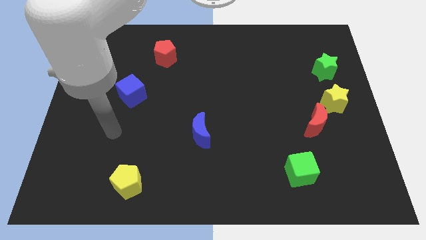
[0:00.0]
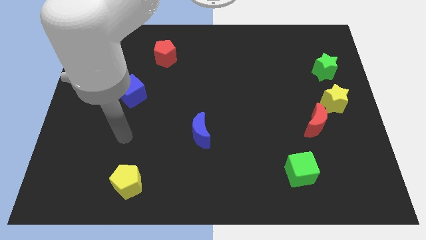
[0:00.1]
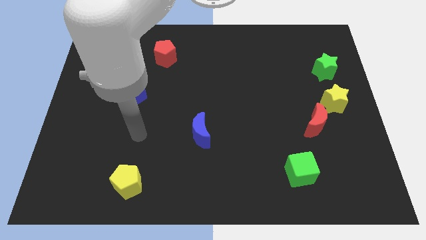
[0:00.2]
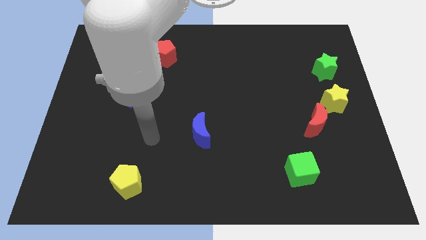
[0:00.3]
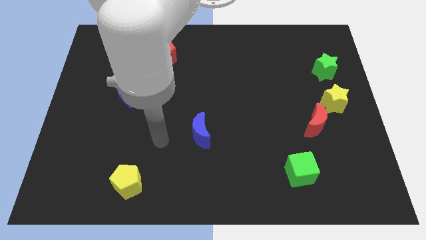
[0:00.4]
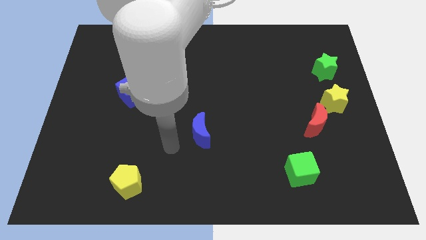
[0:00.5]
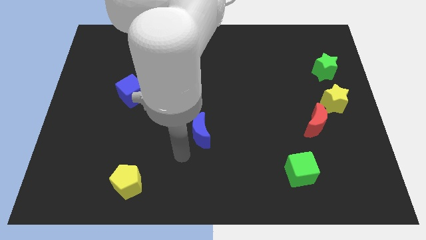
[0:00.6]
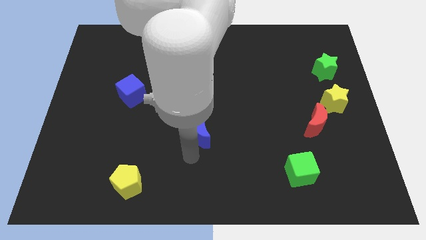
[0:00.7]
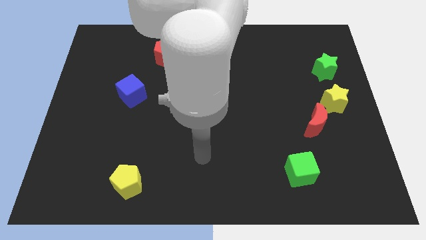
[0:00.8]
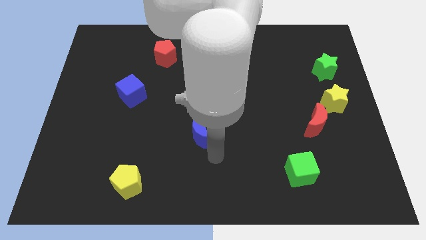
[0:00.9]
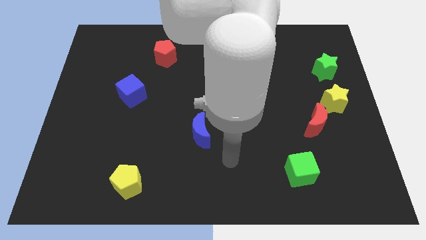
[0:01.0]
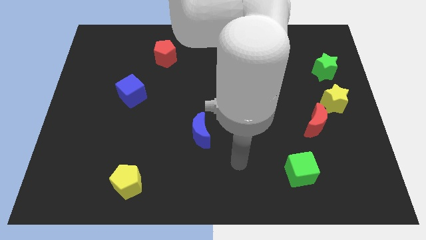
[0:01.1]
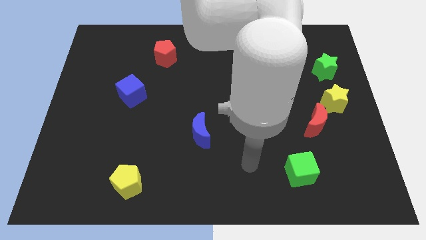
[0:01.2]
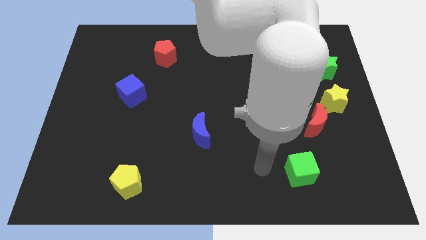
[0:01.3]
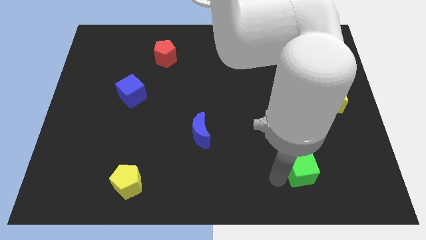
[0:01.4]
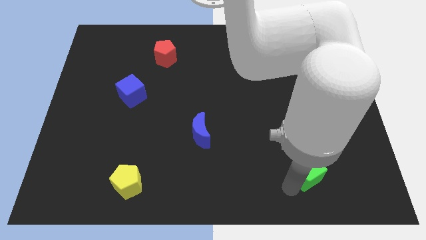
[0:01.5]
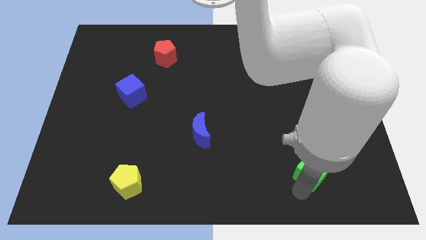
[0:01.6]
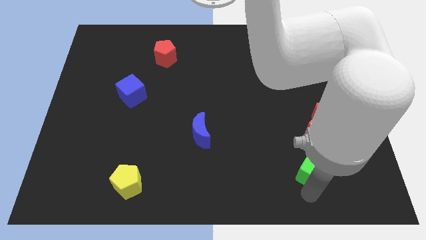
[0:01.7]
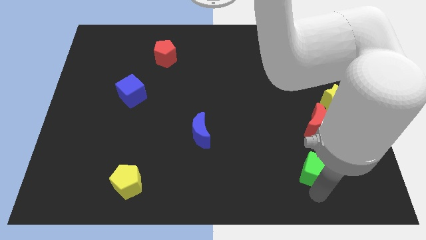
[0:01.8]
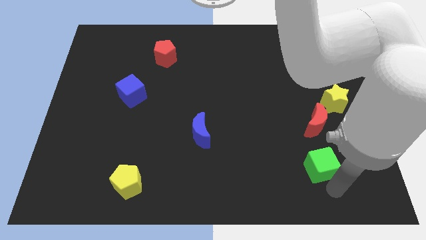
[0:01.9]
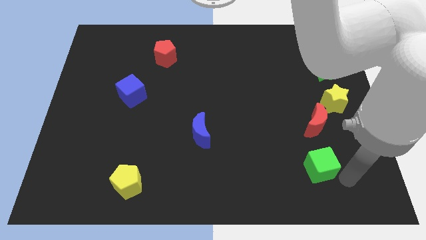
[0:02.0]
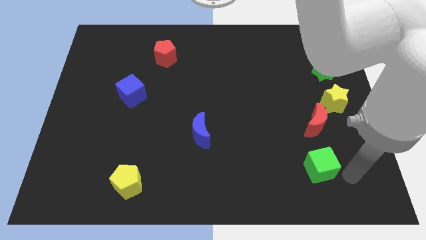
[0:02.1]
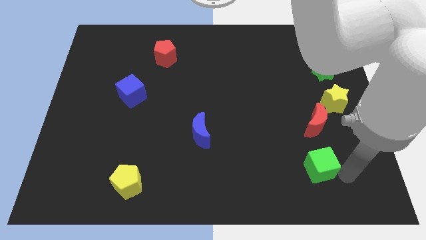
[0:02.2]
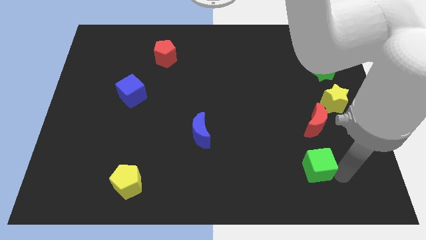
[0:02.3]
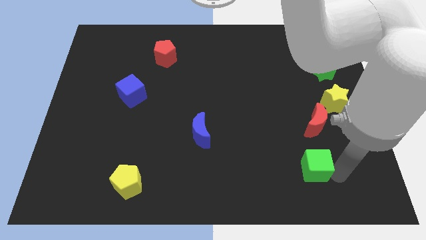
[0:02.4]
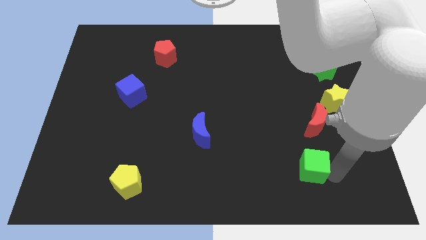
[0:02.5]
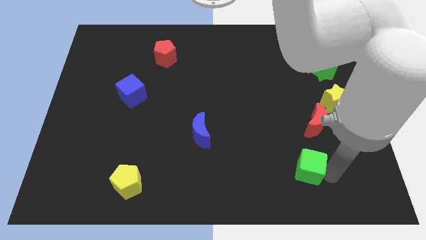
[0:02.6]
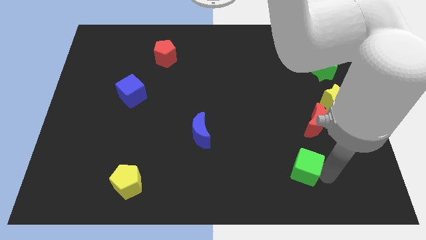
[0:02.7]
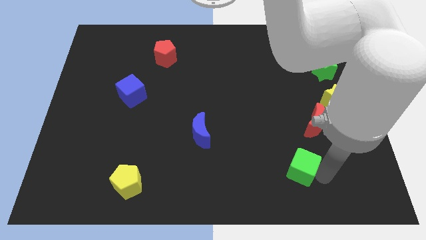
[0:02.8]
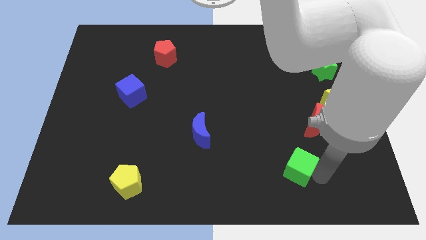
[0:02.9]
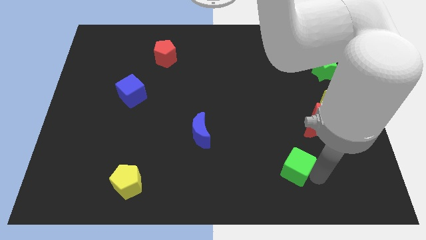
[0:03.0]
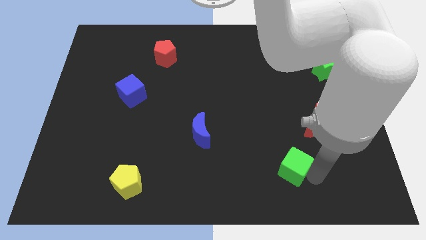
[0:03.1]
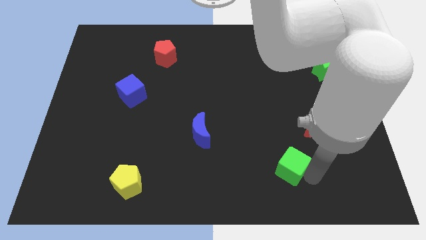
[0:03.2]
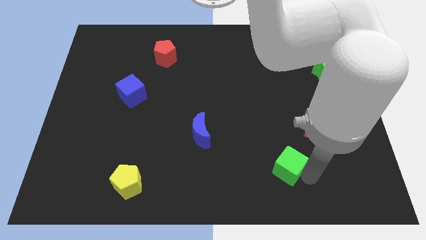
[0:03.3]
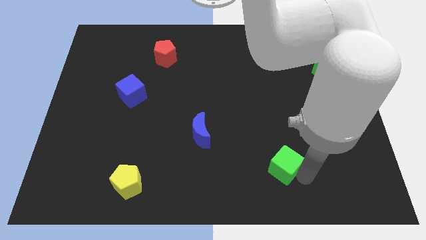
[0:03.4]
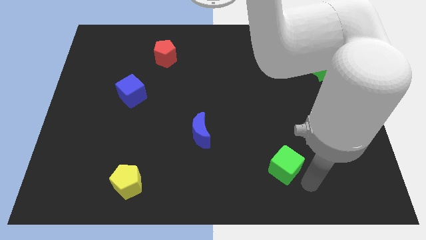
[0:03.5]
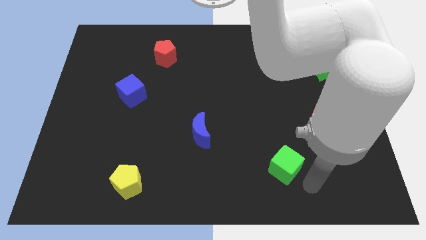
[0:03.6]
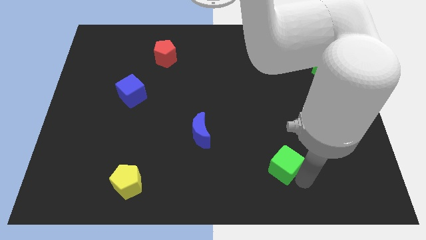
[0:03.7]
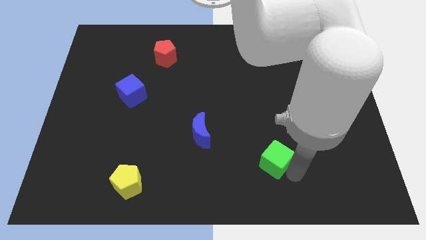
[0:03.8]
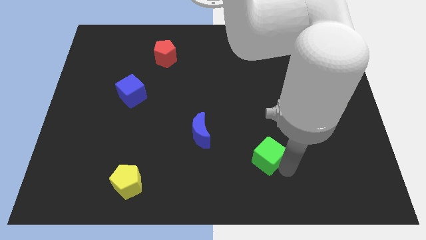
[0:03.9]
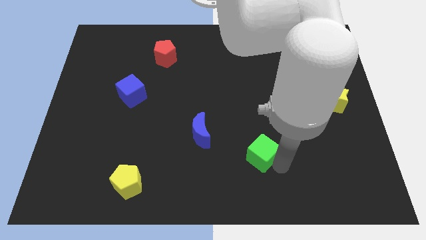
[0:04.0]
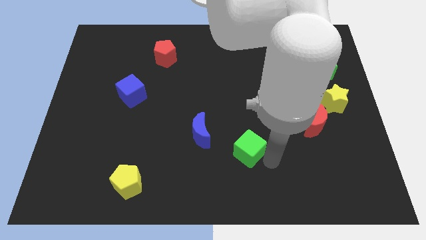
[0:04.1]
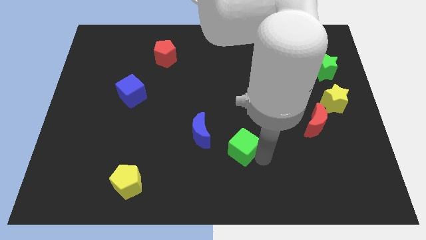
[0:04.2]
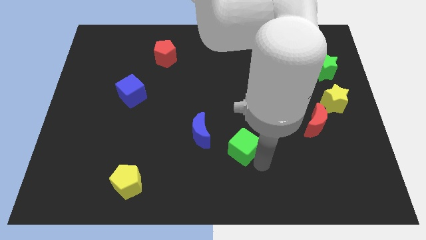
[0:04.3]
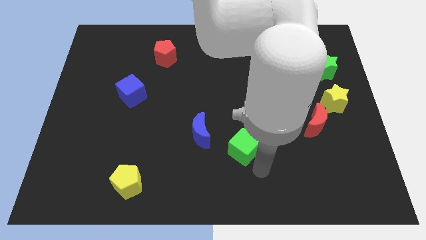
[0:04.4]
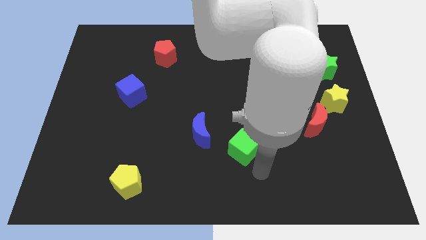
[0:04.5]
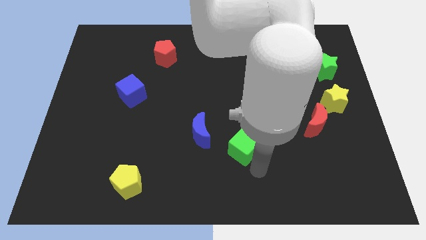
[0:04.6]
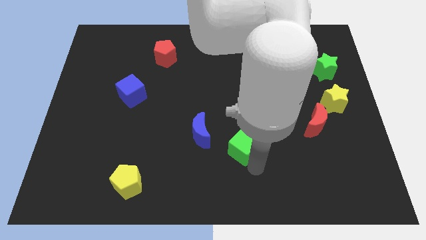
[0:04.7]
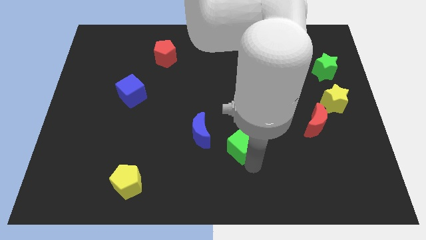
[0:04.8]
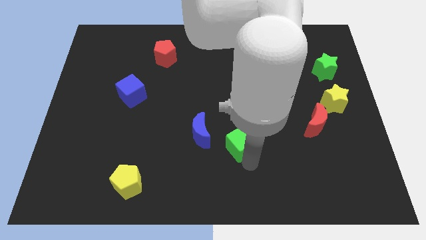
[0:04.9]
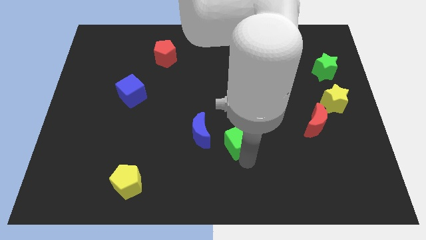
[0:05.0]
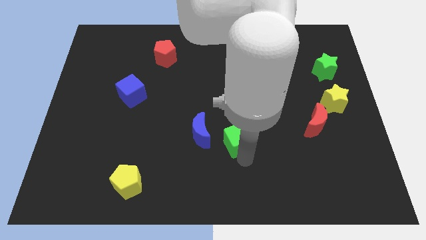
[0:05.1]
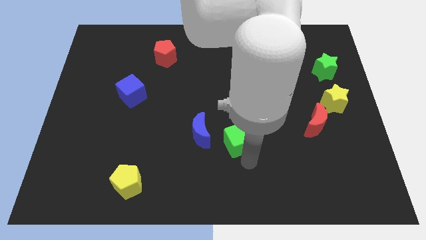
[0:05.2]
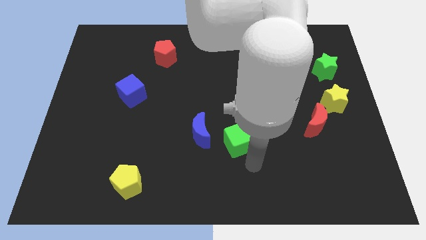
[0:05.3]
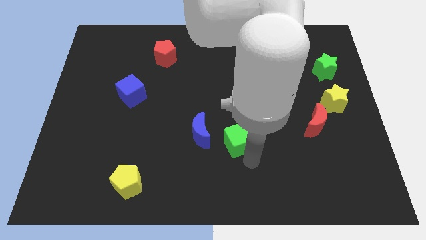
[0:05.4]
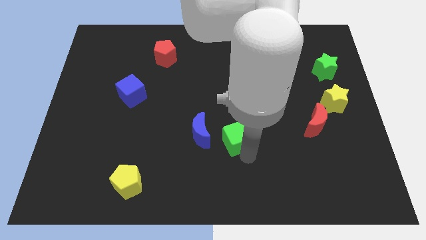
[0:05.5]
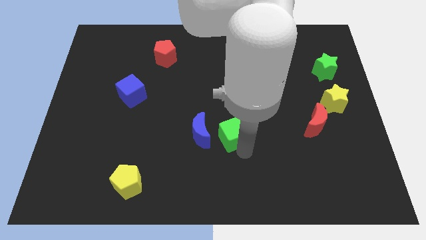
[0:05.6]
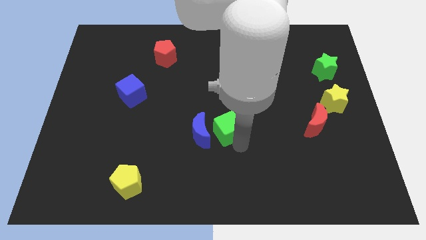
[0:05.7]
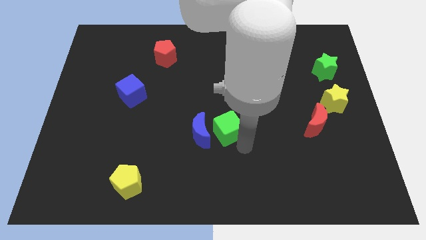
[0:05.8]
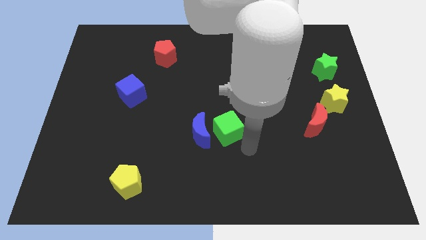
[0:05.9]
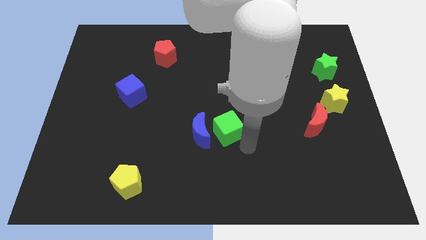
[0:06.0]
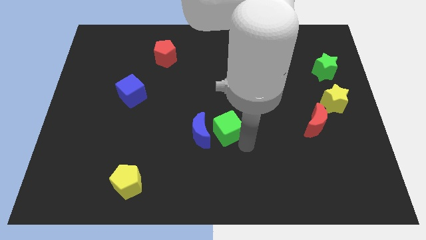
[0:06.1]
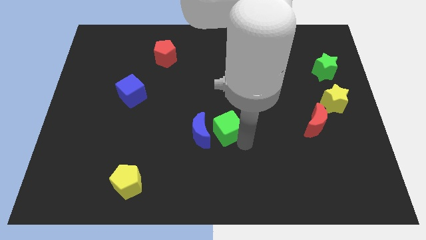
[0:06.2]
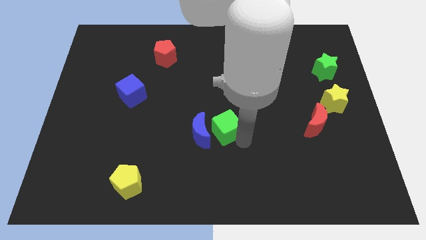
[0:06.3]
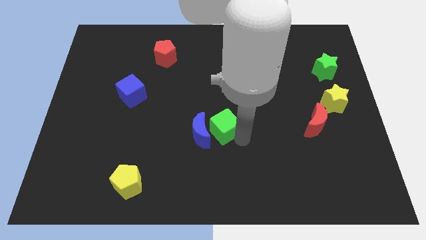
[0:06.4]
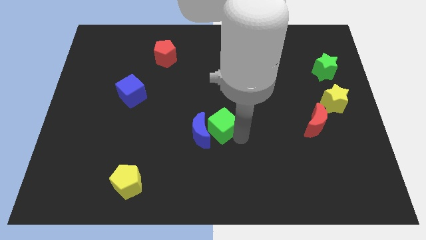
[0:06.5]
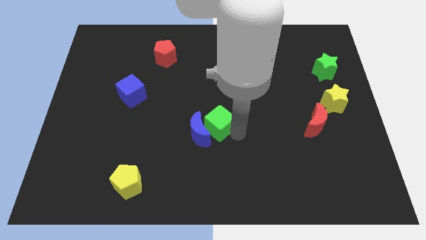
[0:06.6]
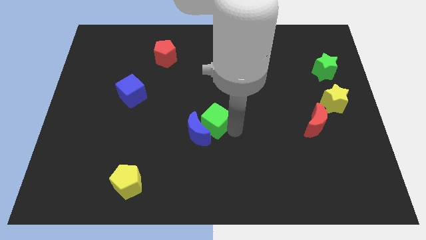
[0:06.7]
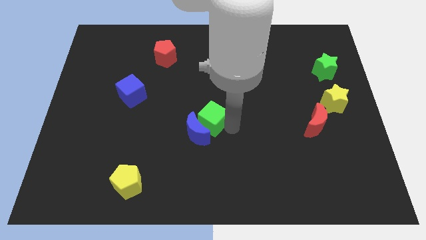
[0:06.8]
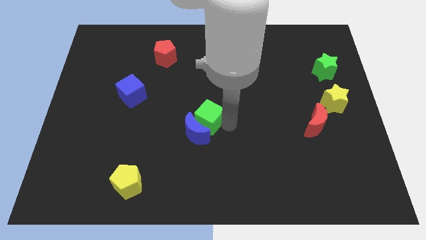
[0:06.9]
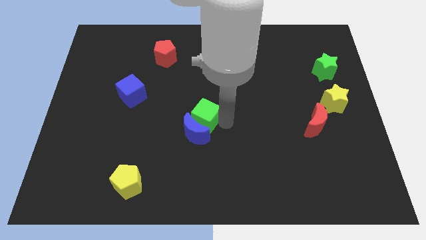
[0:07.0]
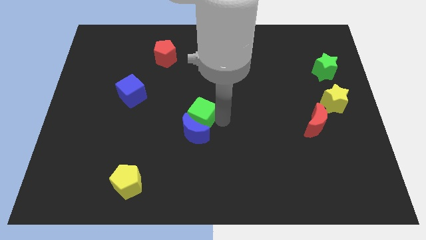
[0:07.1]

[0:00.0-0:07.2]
push the green cube diagonally up and to the left of the blue moon

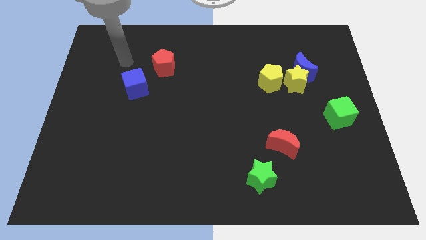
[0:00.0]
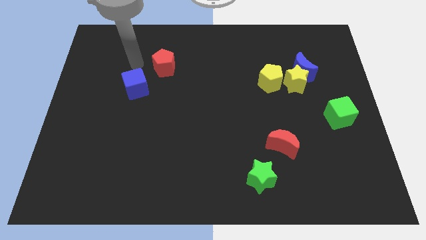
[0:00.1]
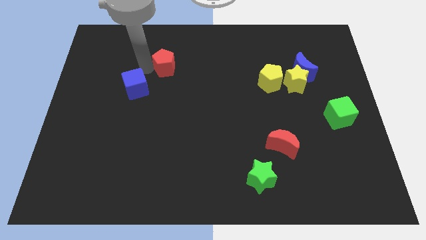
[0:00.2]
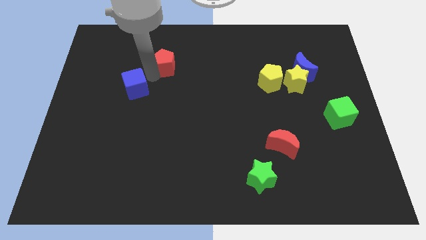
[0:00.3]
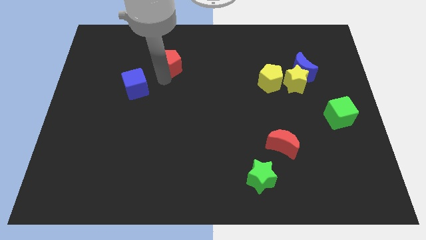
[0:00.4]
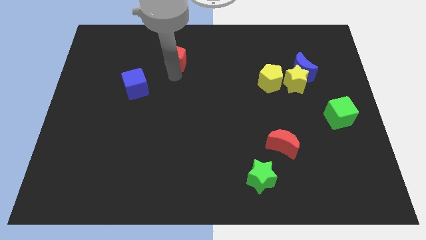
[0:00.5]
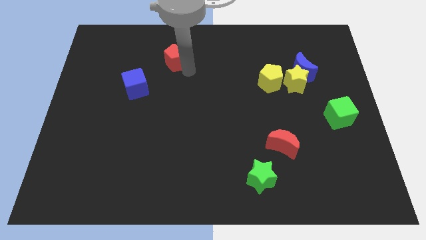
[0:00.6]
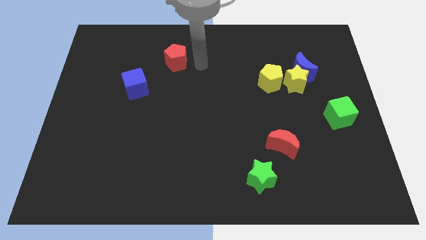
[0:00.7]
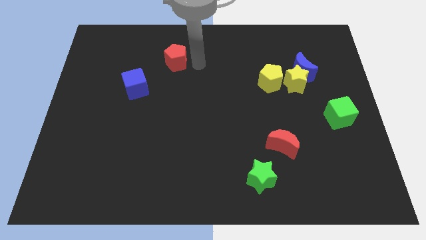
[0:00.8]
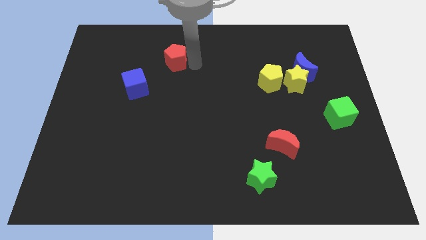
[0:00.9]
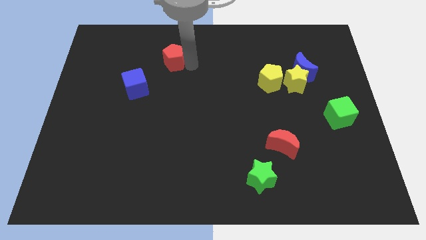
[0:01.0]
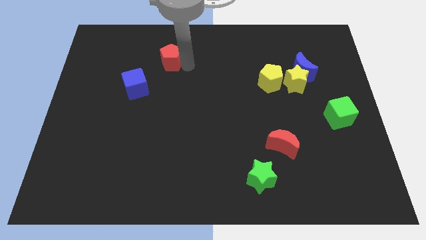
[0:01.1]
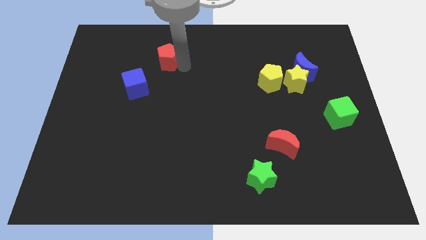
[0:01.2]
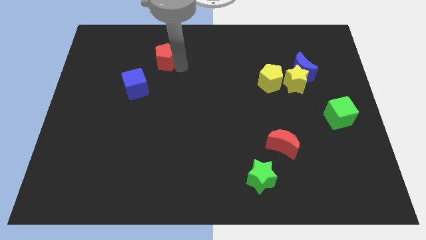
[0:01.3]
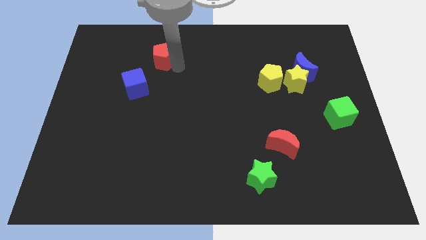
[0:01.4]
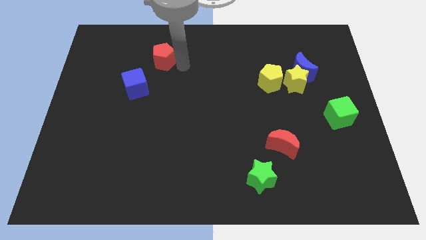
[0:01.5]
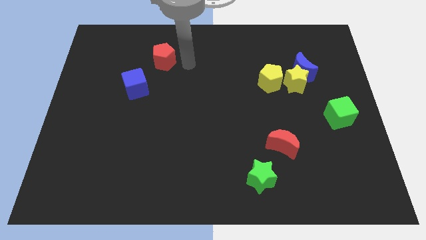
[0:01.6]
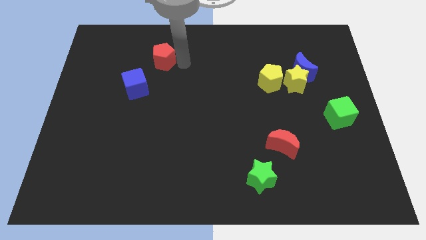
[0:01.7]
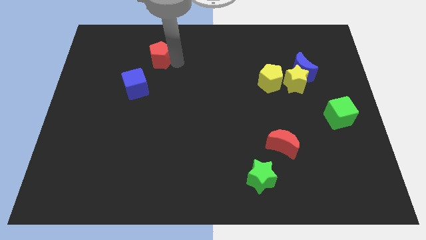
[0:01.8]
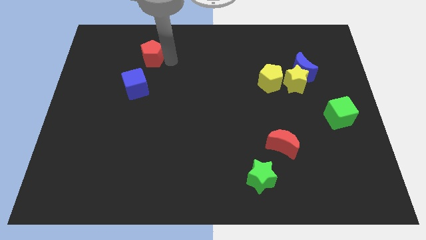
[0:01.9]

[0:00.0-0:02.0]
slide the red pentagon above the blue cube
